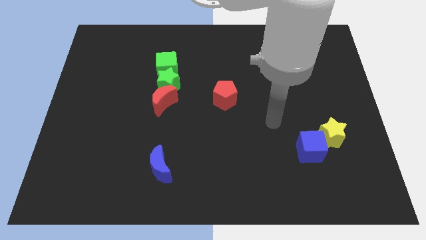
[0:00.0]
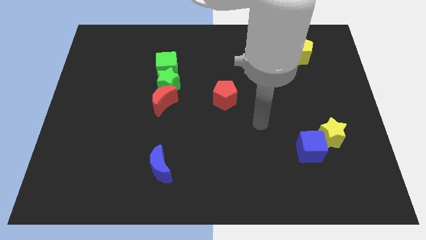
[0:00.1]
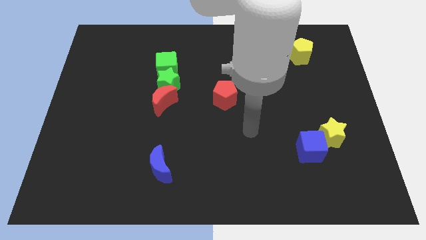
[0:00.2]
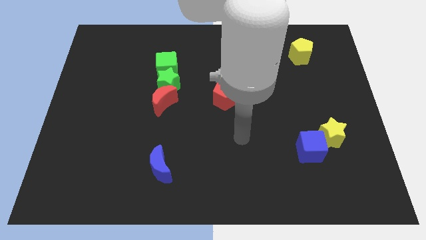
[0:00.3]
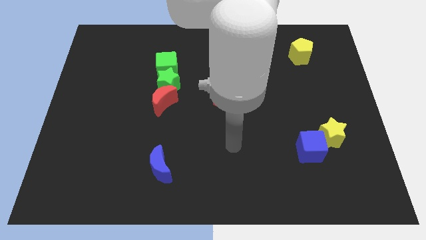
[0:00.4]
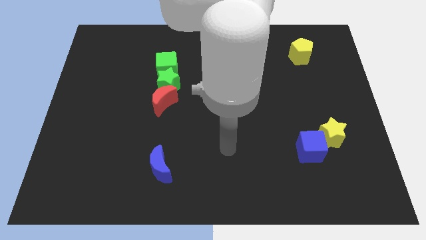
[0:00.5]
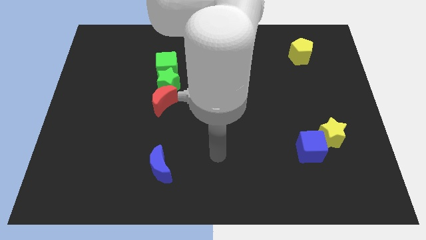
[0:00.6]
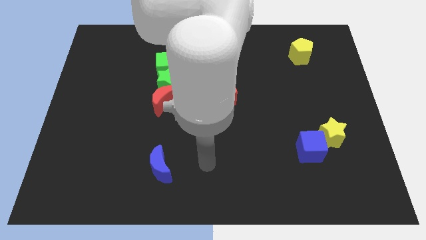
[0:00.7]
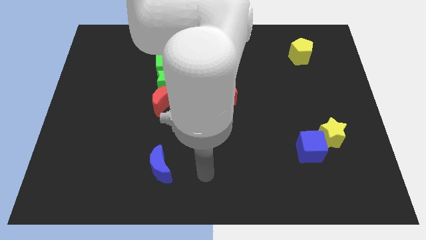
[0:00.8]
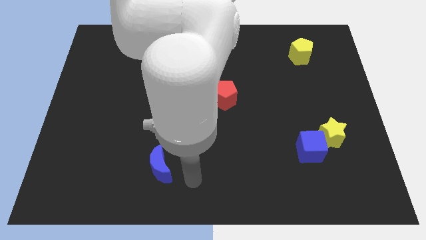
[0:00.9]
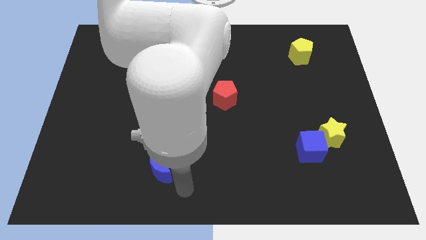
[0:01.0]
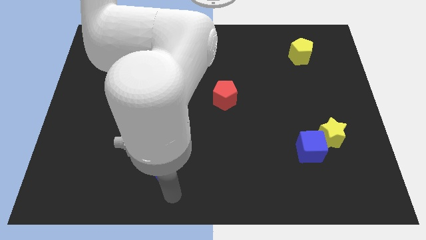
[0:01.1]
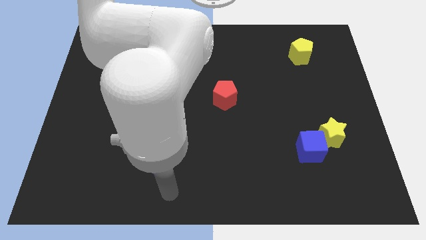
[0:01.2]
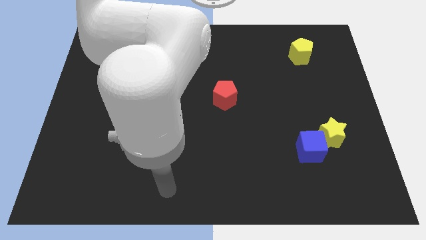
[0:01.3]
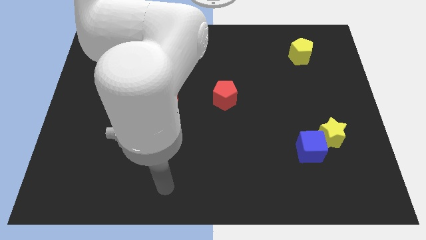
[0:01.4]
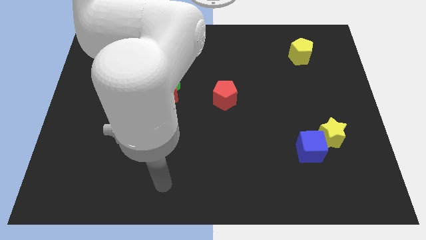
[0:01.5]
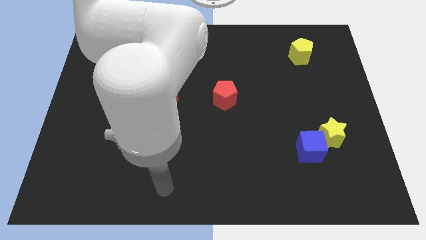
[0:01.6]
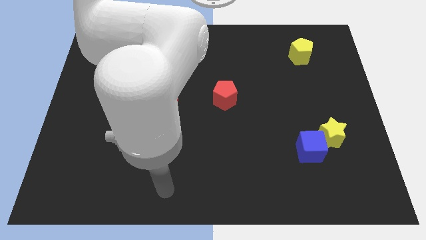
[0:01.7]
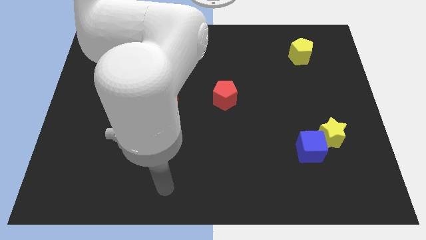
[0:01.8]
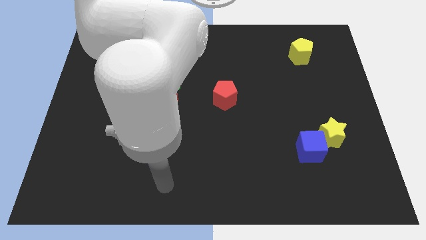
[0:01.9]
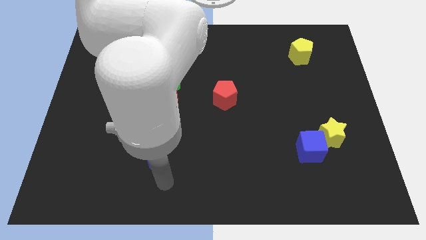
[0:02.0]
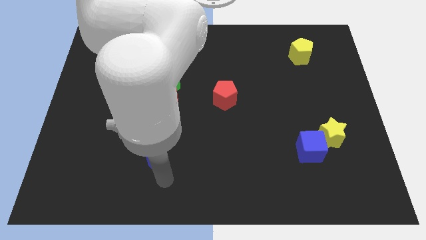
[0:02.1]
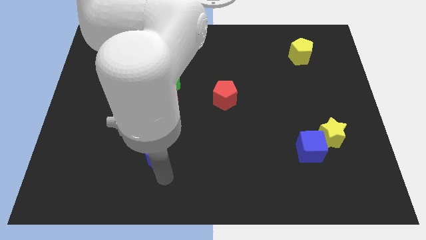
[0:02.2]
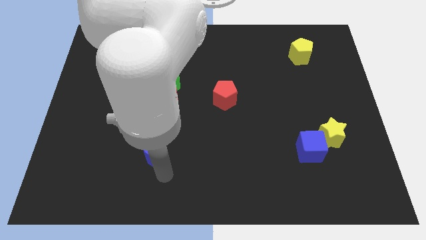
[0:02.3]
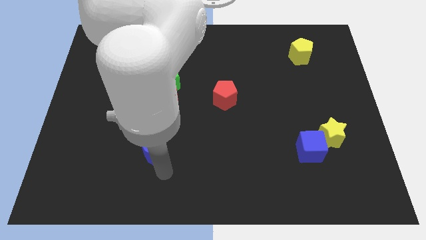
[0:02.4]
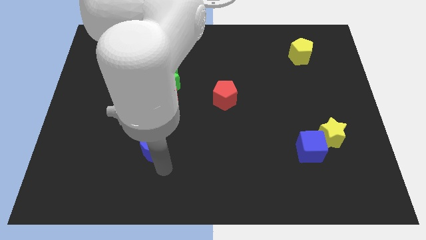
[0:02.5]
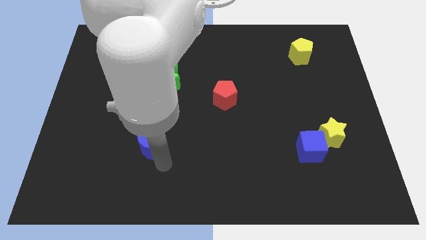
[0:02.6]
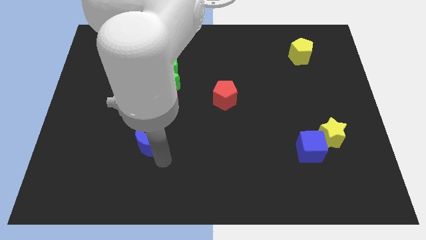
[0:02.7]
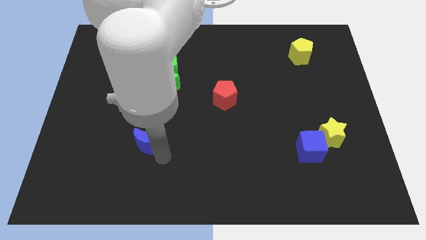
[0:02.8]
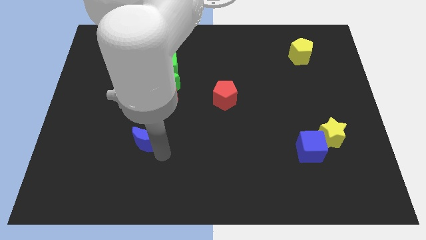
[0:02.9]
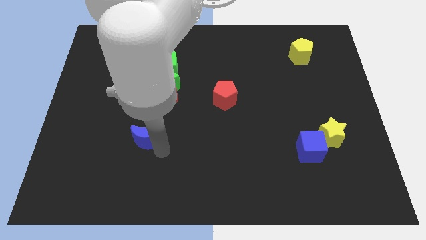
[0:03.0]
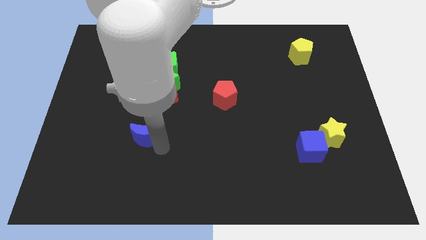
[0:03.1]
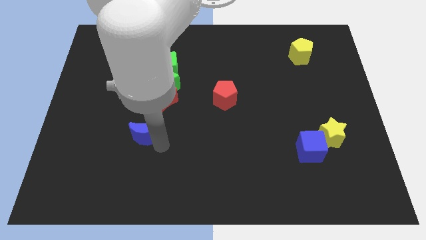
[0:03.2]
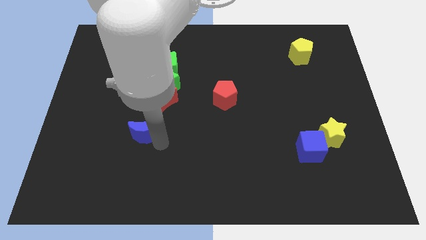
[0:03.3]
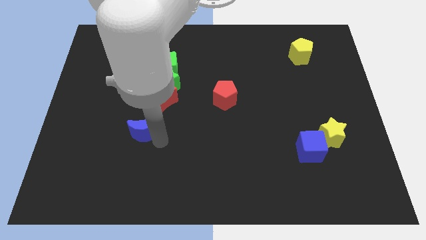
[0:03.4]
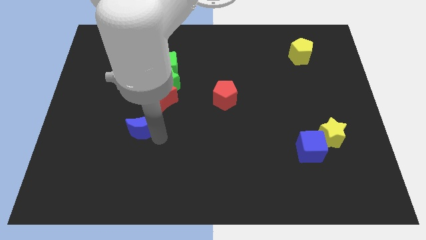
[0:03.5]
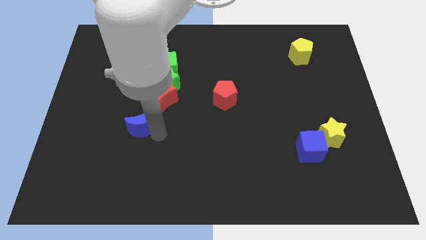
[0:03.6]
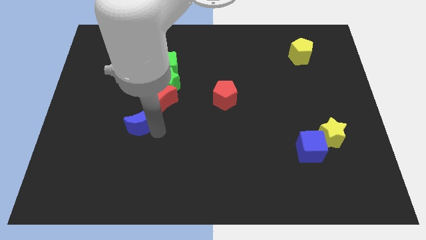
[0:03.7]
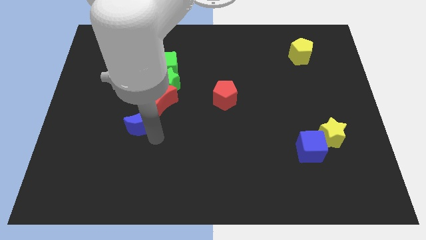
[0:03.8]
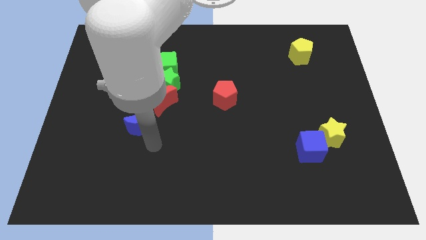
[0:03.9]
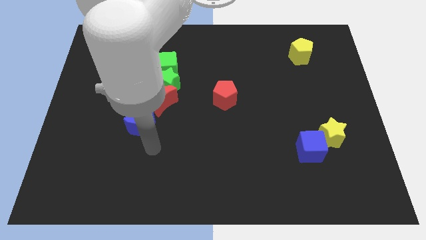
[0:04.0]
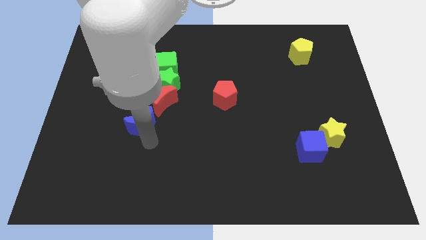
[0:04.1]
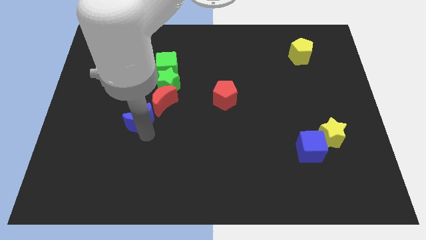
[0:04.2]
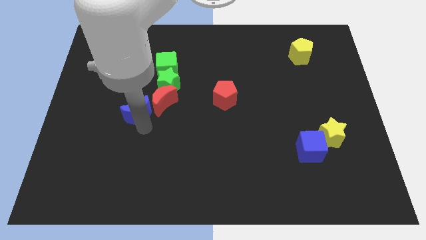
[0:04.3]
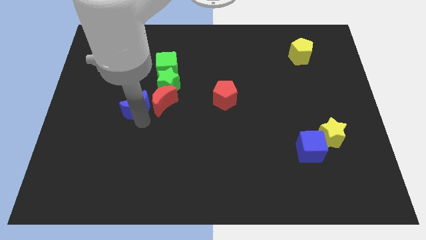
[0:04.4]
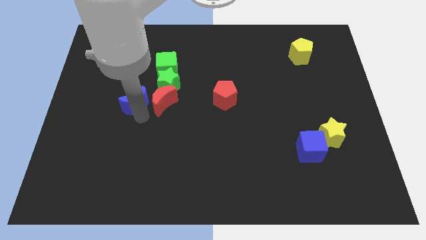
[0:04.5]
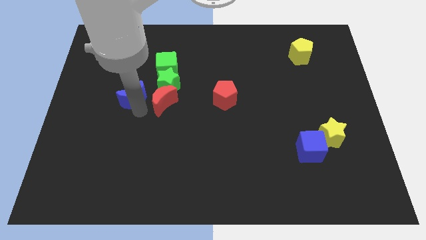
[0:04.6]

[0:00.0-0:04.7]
slide the blue moon to the left of the green star

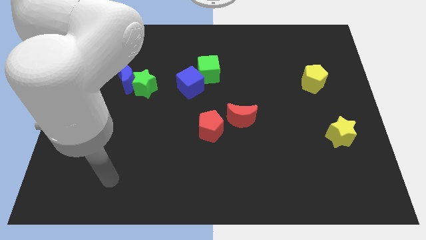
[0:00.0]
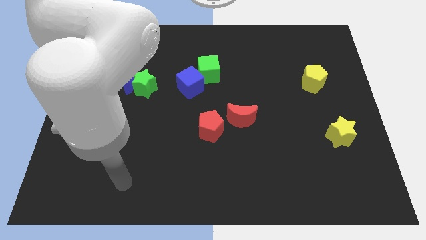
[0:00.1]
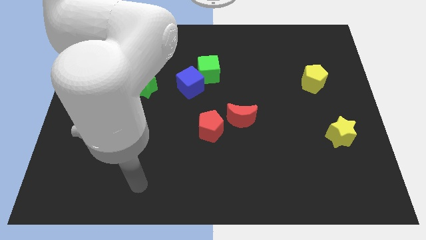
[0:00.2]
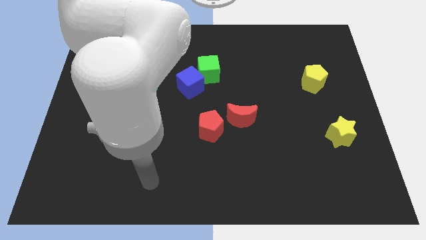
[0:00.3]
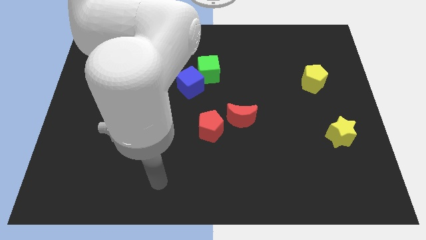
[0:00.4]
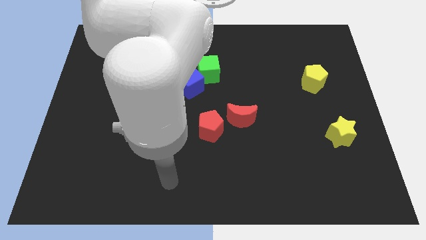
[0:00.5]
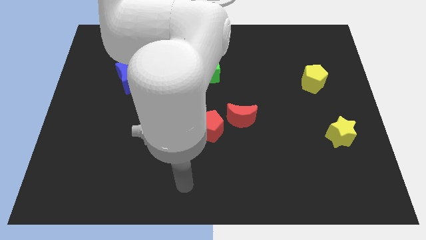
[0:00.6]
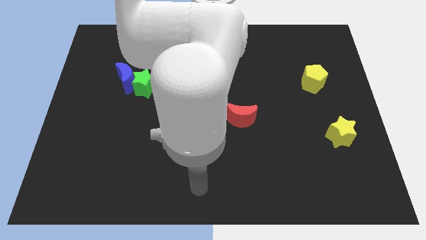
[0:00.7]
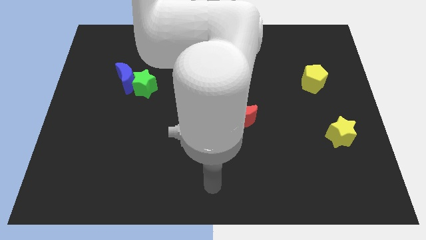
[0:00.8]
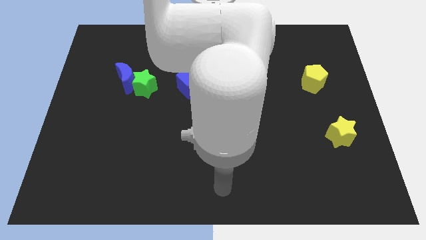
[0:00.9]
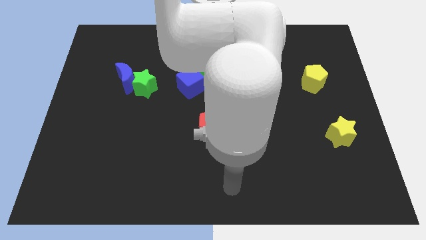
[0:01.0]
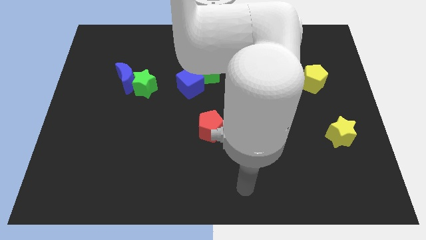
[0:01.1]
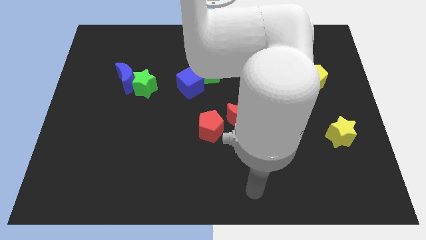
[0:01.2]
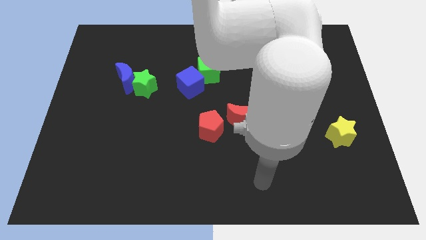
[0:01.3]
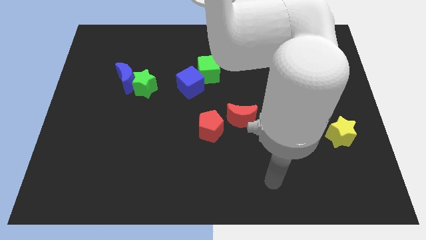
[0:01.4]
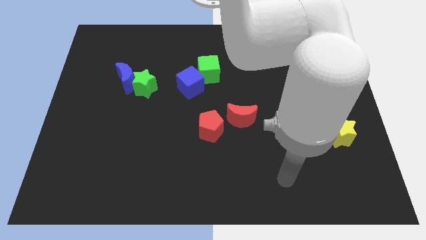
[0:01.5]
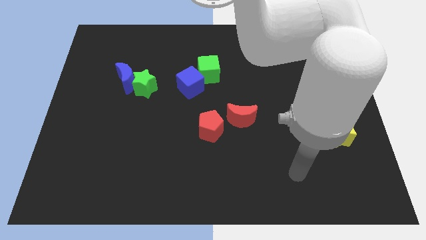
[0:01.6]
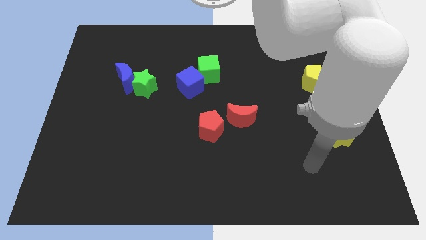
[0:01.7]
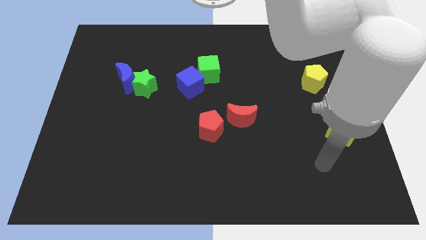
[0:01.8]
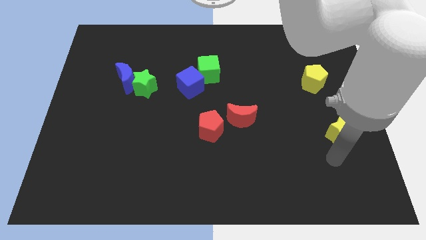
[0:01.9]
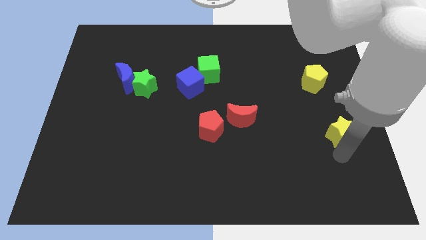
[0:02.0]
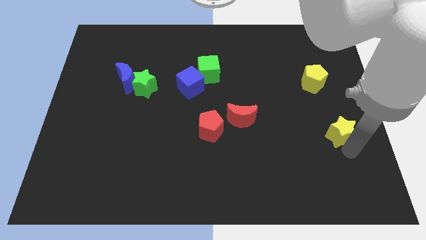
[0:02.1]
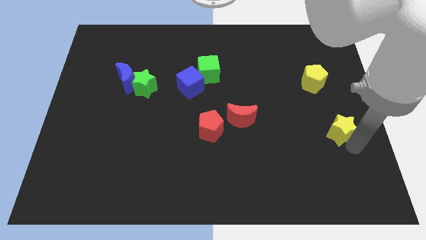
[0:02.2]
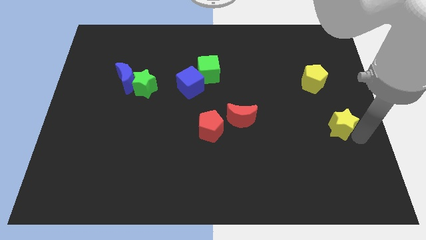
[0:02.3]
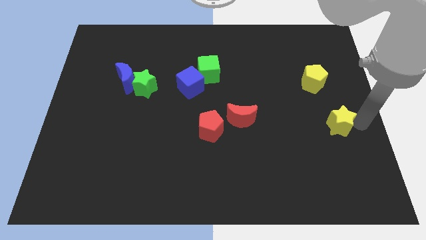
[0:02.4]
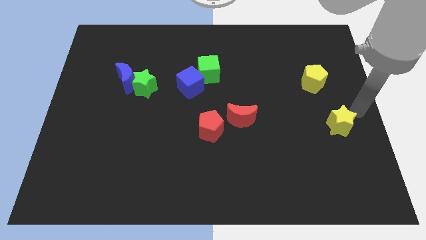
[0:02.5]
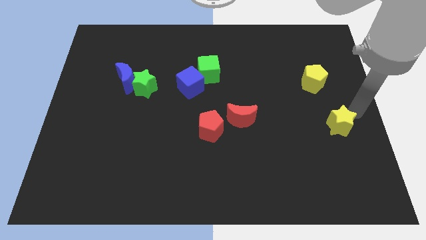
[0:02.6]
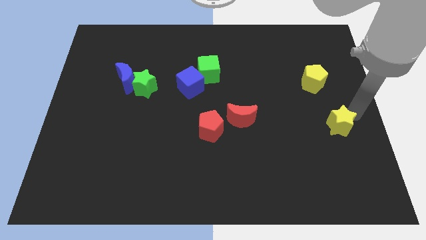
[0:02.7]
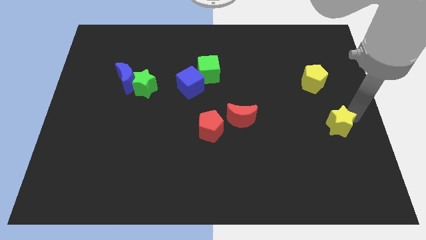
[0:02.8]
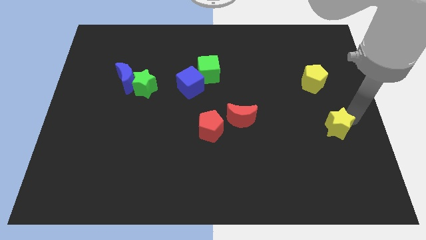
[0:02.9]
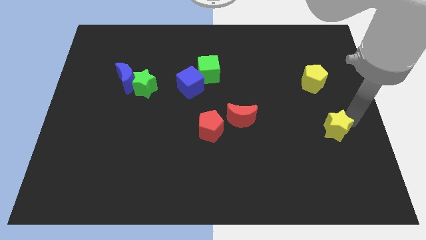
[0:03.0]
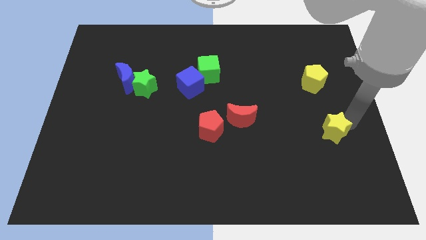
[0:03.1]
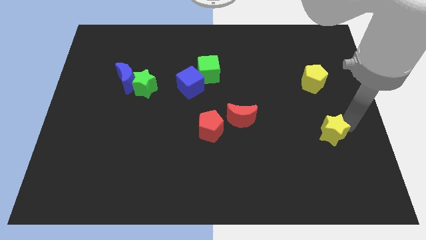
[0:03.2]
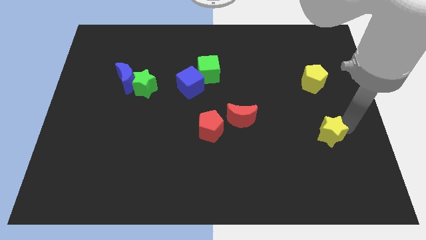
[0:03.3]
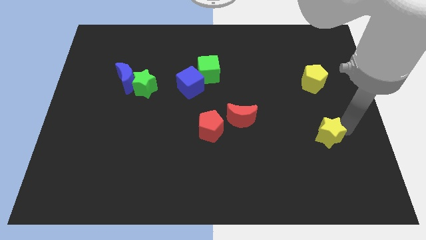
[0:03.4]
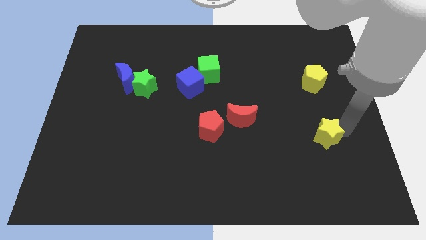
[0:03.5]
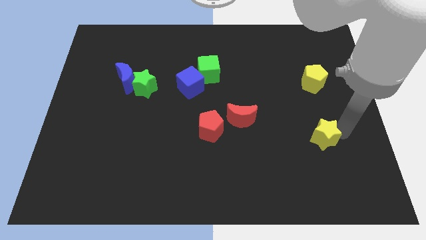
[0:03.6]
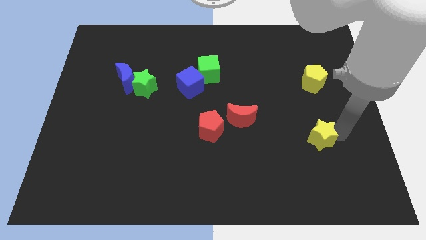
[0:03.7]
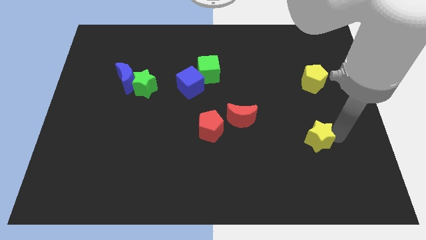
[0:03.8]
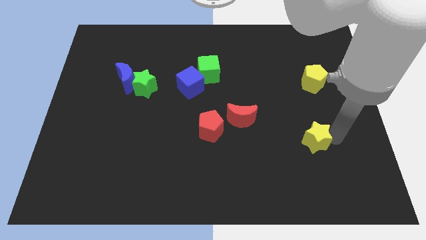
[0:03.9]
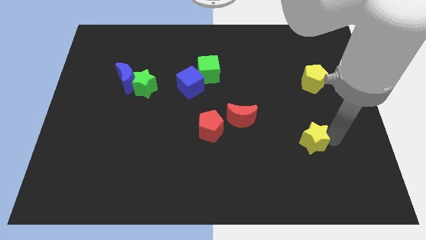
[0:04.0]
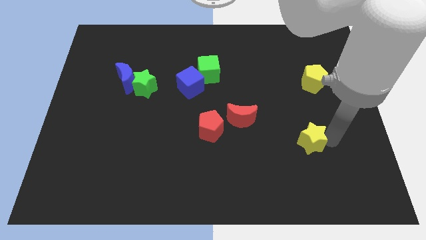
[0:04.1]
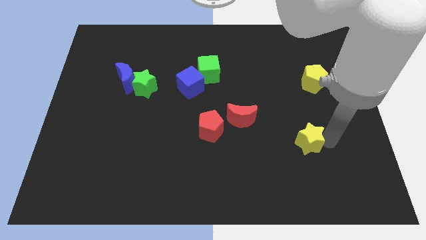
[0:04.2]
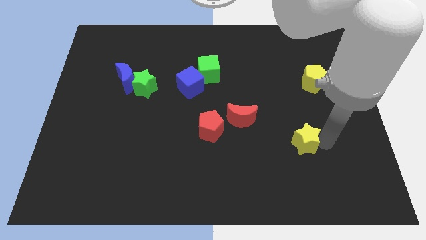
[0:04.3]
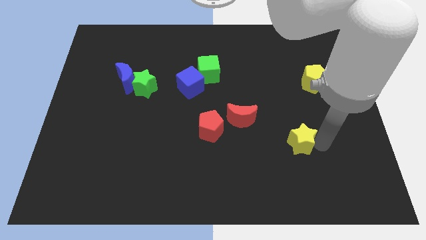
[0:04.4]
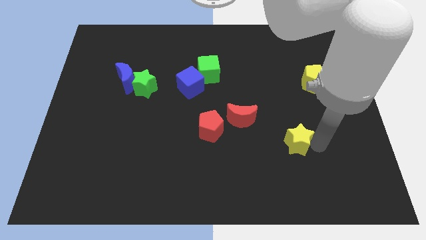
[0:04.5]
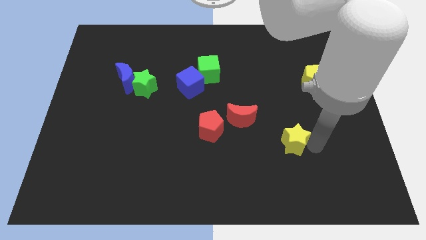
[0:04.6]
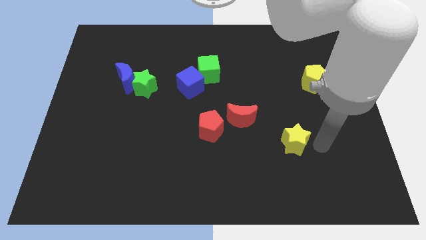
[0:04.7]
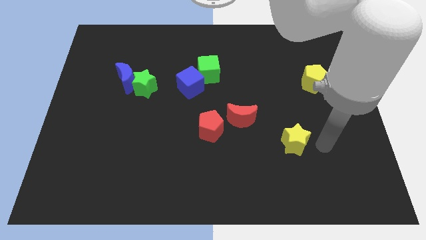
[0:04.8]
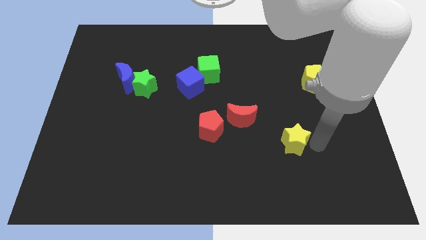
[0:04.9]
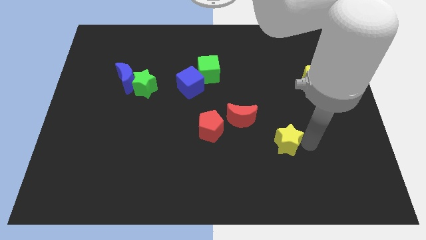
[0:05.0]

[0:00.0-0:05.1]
slide the yellow star diagonally down and to the right of the red moon
